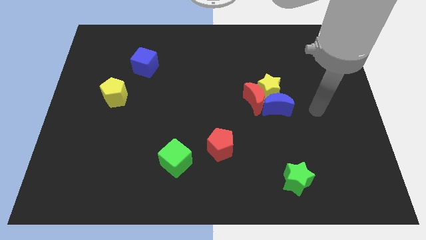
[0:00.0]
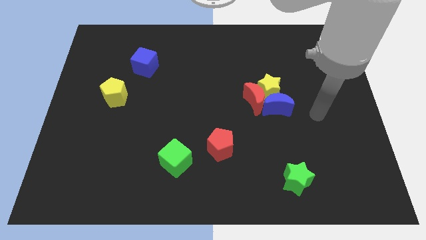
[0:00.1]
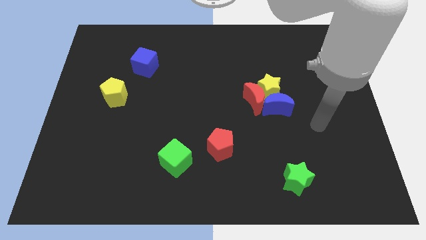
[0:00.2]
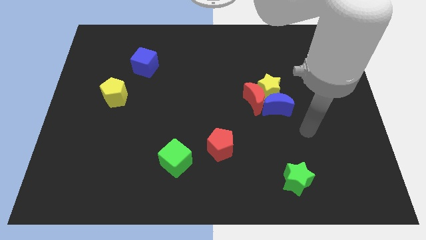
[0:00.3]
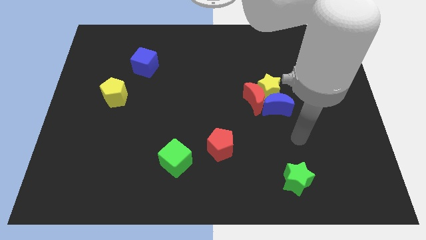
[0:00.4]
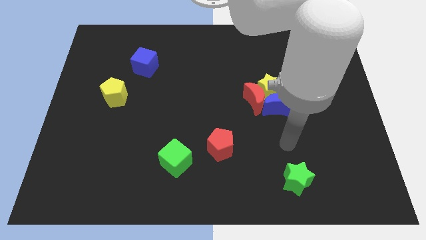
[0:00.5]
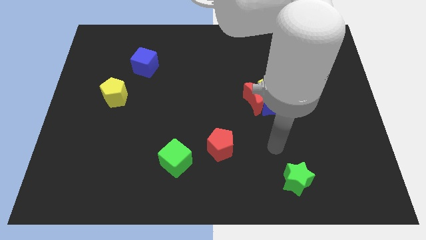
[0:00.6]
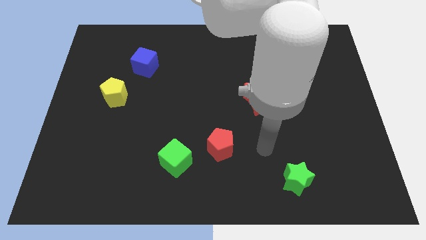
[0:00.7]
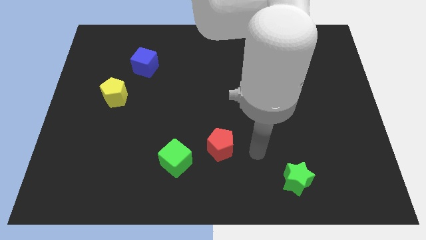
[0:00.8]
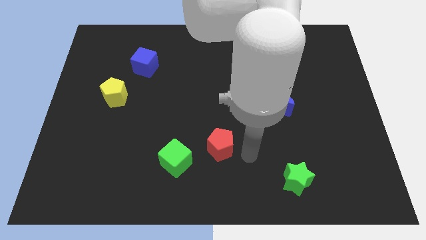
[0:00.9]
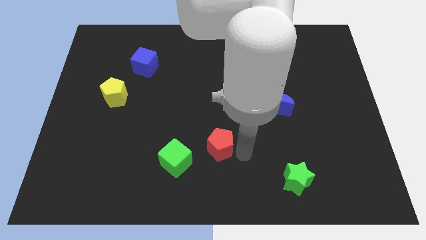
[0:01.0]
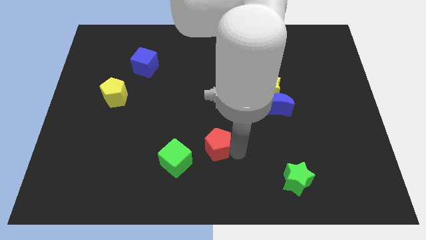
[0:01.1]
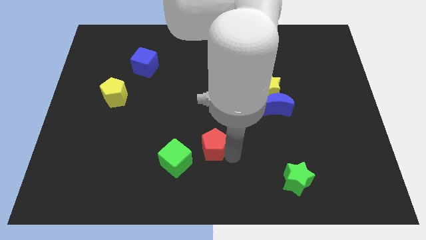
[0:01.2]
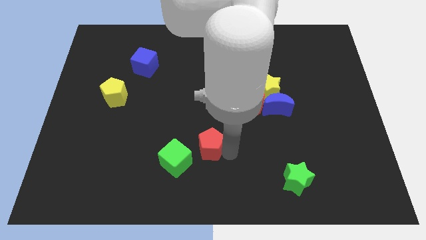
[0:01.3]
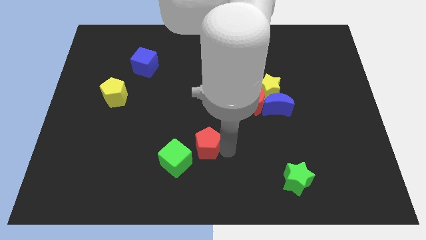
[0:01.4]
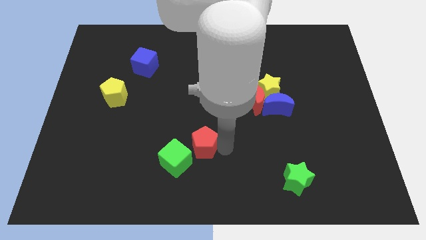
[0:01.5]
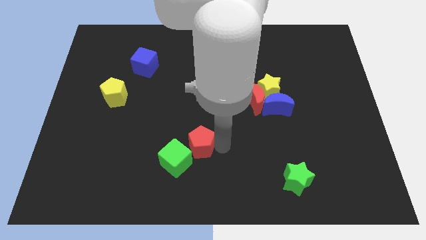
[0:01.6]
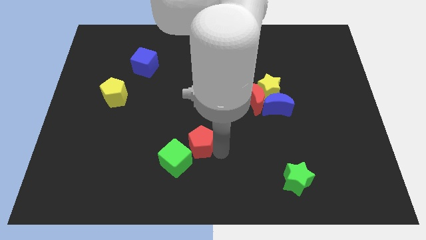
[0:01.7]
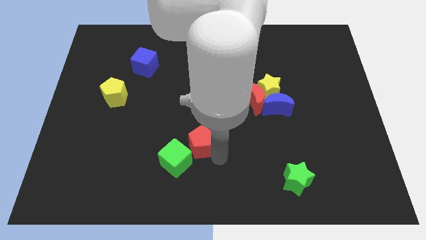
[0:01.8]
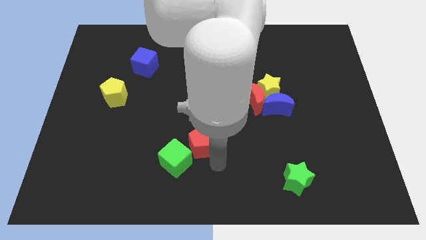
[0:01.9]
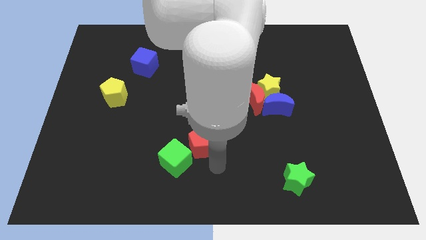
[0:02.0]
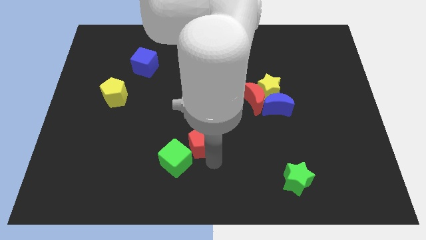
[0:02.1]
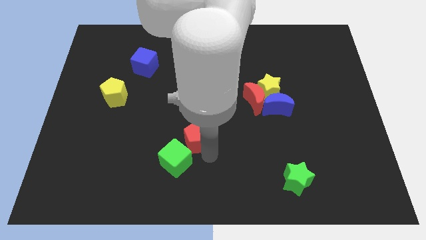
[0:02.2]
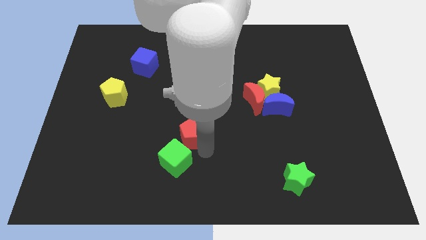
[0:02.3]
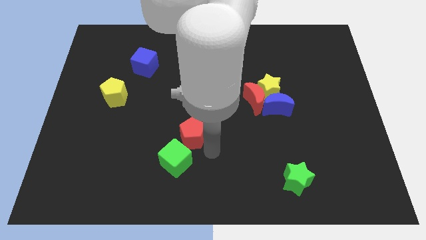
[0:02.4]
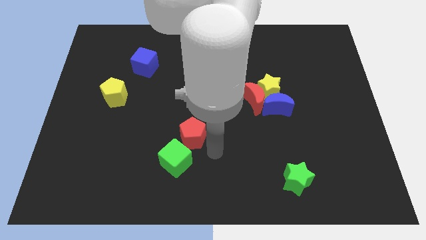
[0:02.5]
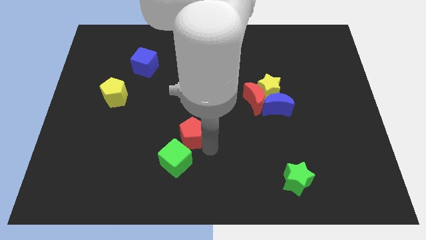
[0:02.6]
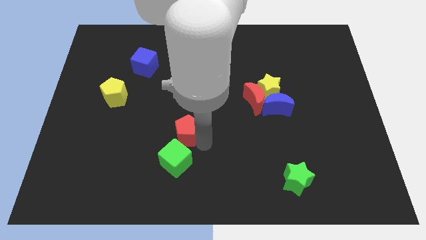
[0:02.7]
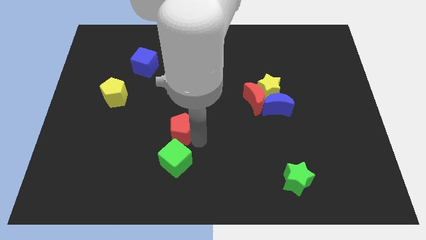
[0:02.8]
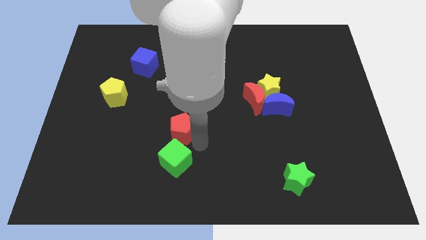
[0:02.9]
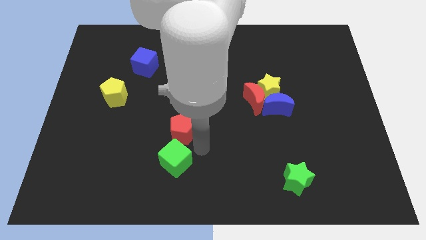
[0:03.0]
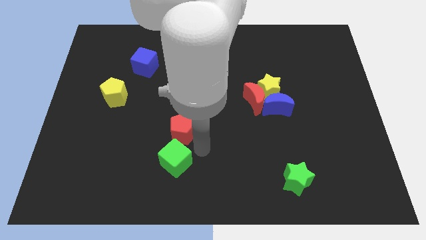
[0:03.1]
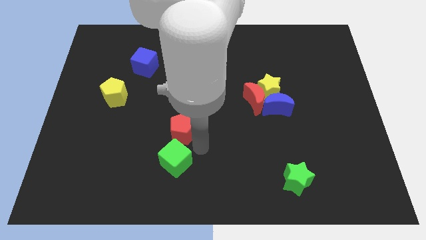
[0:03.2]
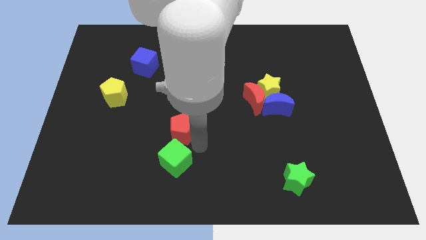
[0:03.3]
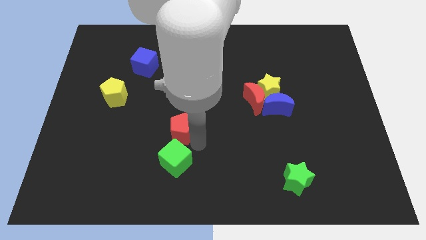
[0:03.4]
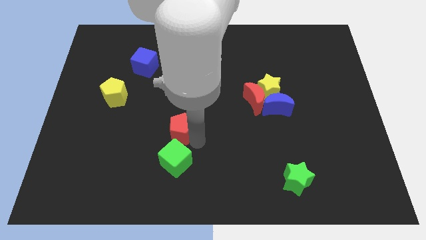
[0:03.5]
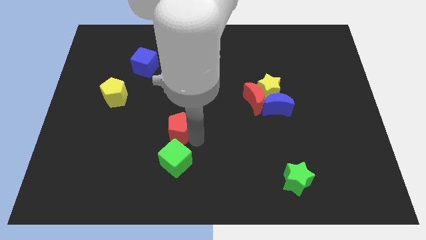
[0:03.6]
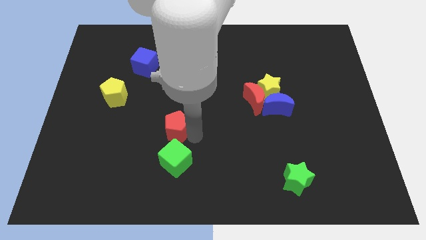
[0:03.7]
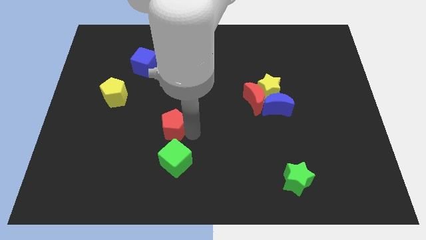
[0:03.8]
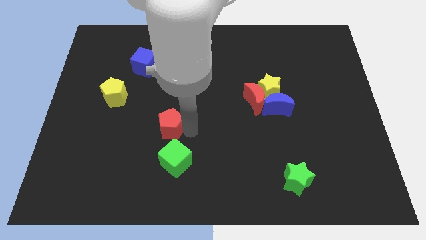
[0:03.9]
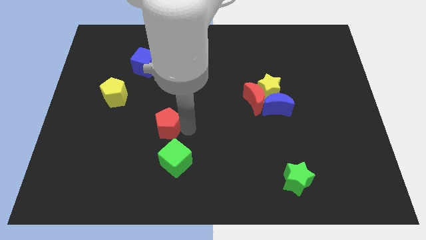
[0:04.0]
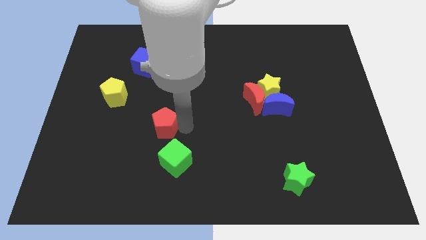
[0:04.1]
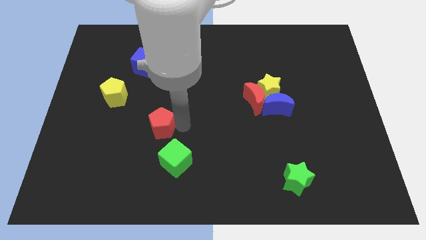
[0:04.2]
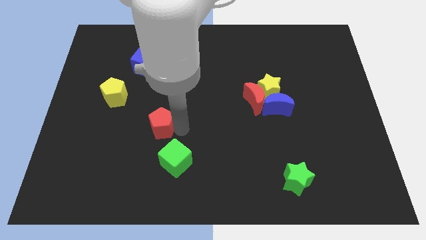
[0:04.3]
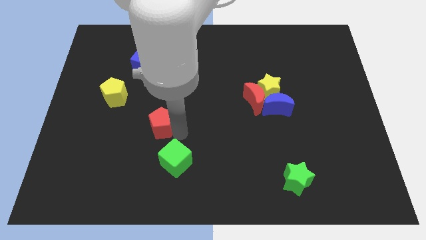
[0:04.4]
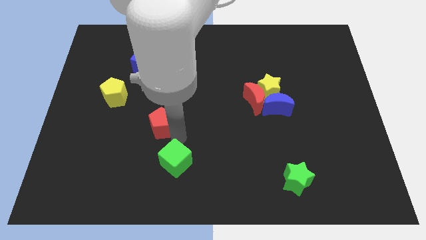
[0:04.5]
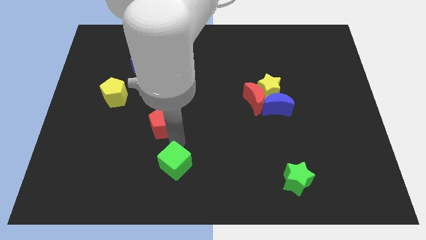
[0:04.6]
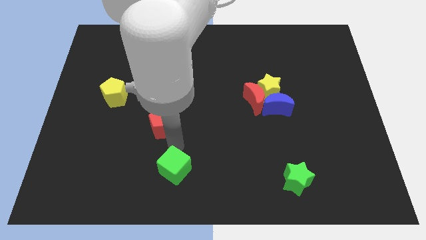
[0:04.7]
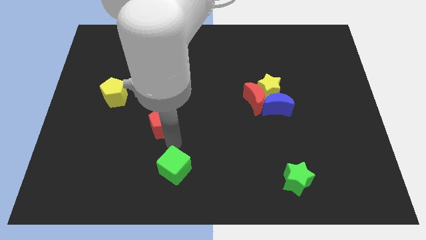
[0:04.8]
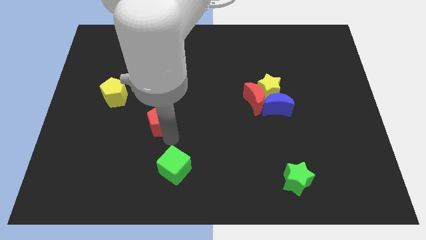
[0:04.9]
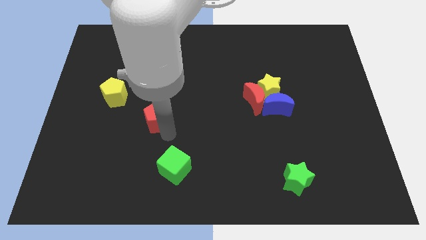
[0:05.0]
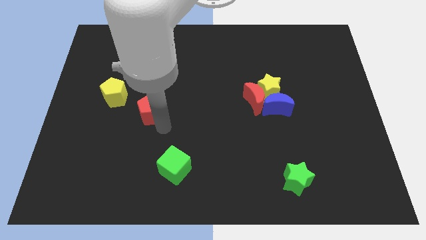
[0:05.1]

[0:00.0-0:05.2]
slide the red pentagon to the bottom side of the blue cube

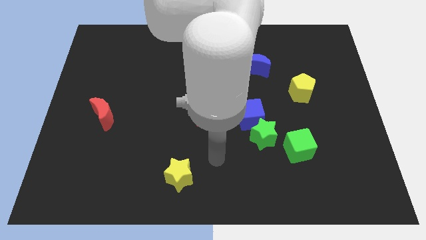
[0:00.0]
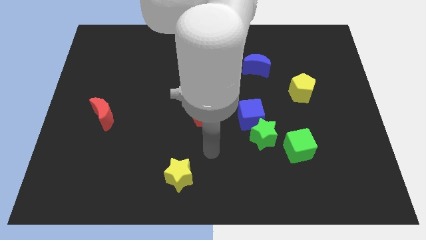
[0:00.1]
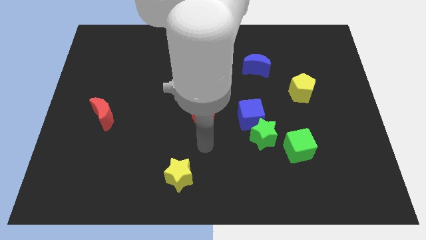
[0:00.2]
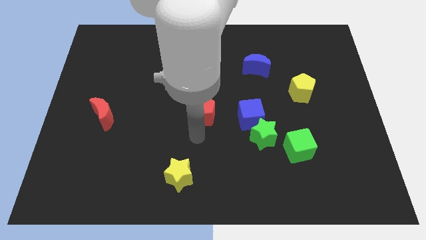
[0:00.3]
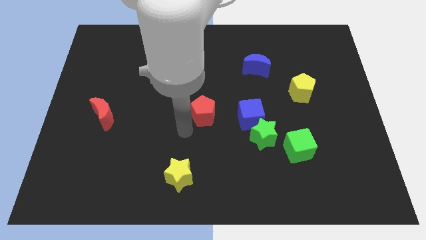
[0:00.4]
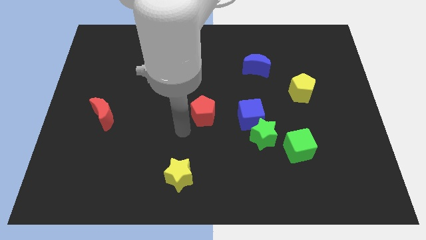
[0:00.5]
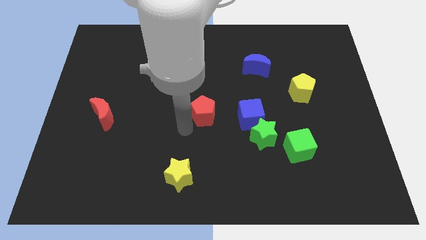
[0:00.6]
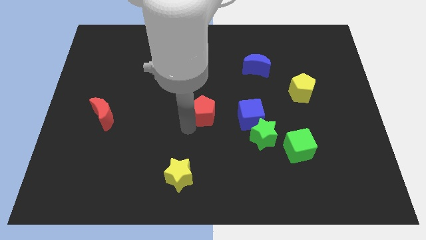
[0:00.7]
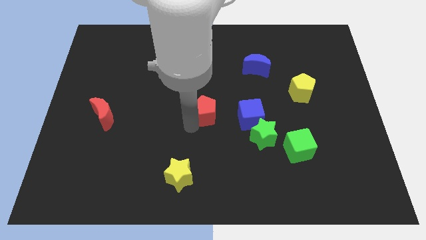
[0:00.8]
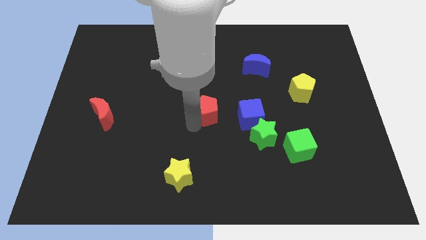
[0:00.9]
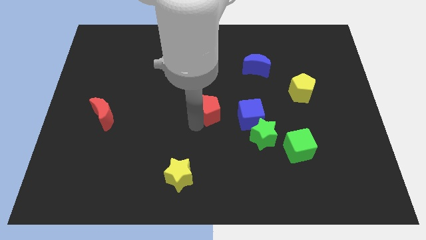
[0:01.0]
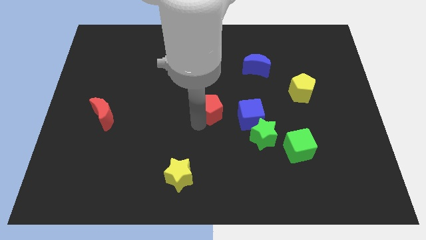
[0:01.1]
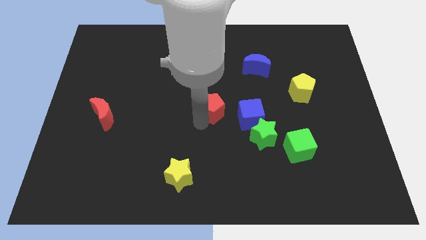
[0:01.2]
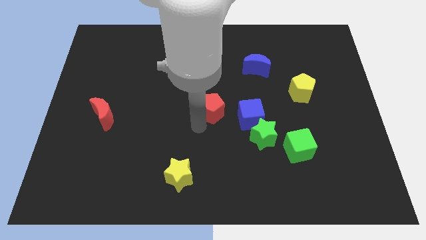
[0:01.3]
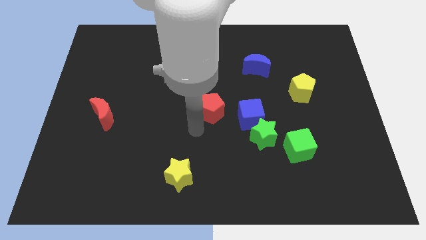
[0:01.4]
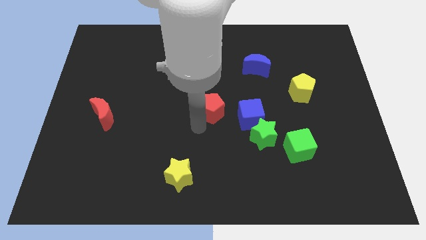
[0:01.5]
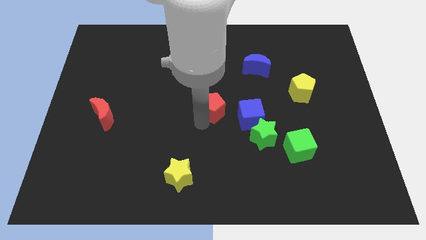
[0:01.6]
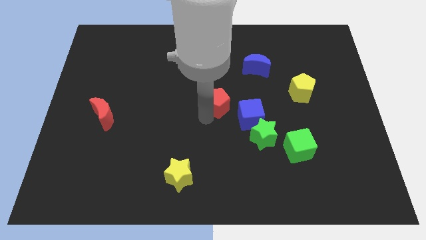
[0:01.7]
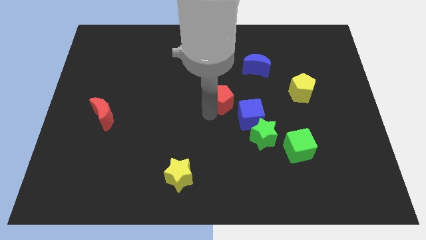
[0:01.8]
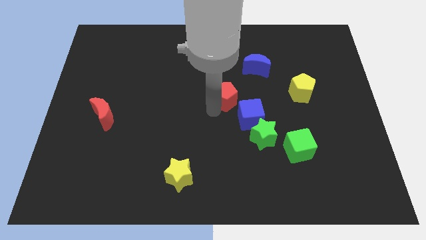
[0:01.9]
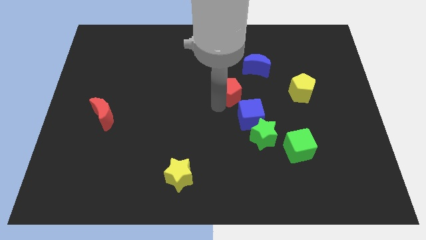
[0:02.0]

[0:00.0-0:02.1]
push the red pentagon to the bottom left side of the blue moon
